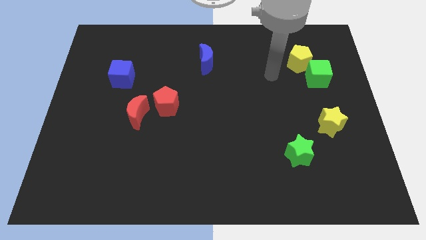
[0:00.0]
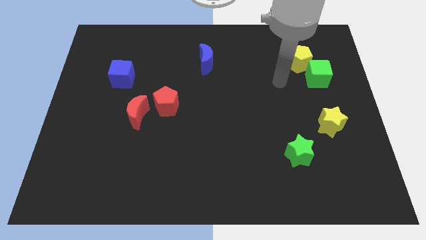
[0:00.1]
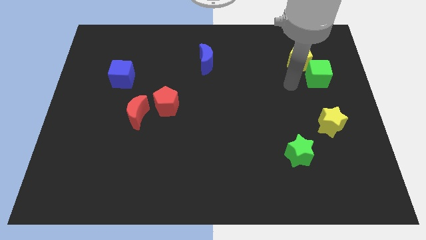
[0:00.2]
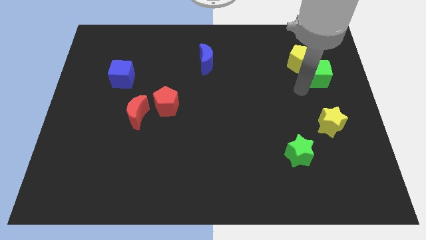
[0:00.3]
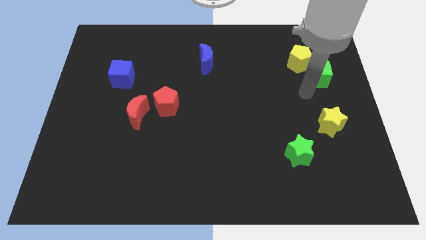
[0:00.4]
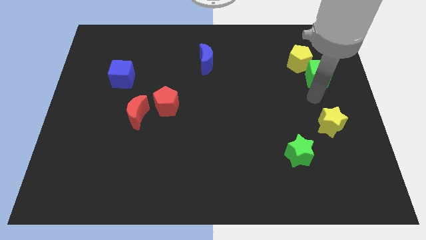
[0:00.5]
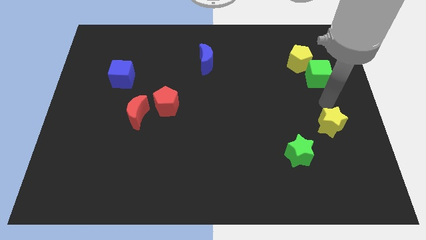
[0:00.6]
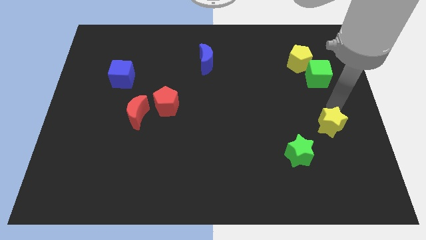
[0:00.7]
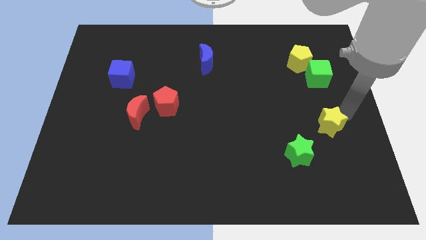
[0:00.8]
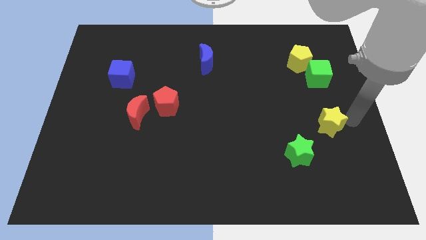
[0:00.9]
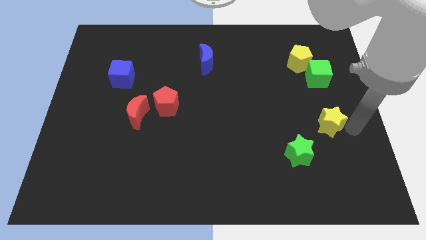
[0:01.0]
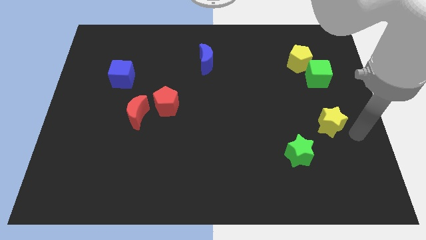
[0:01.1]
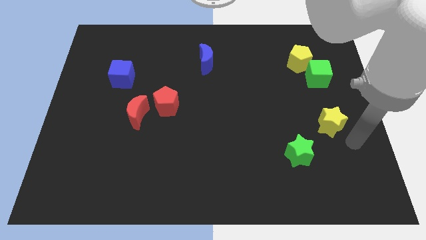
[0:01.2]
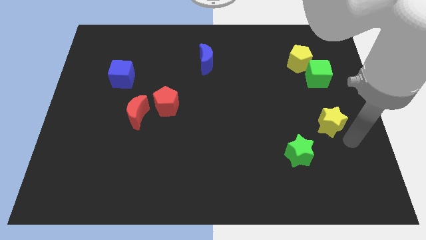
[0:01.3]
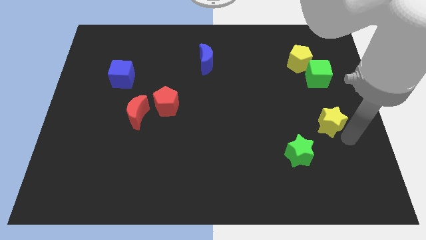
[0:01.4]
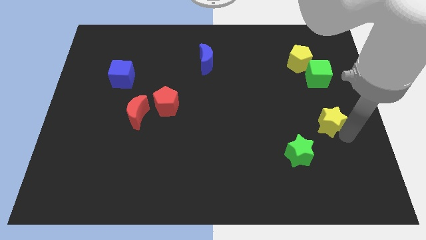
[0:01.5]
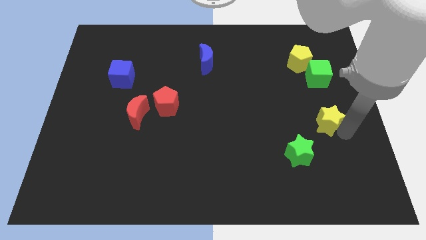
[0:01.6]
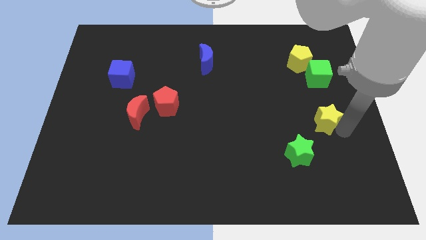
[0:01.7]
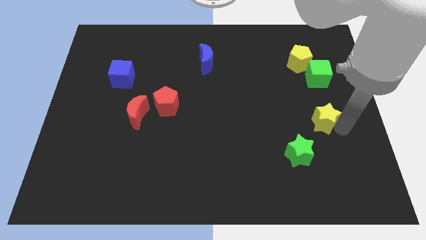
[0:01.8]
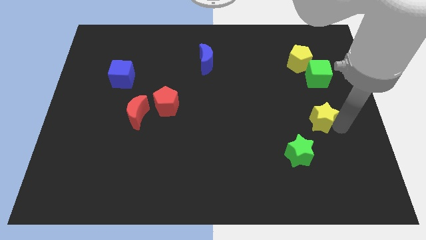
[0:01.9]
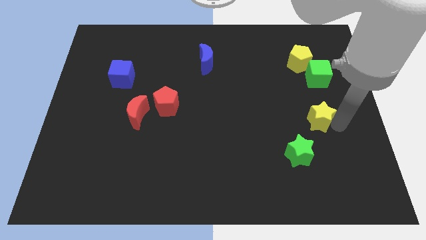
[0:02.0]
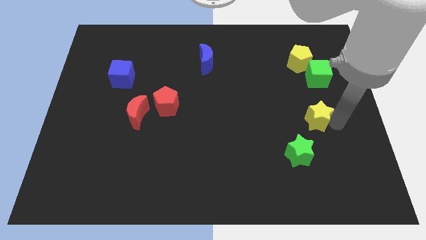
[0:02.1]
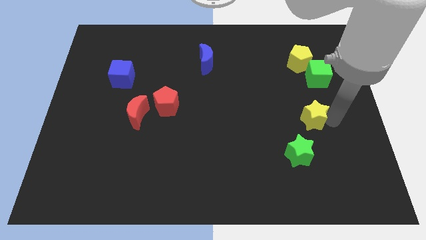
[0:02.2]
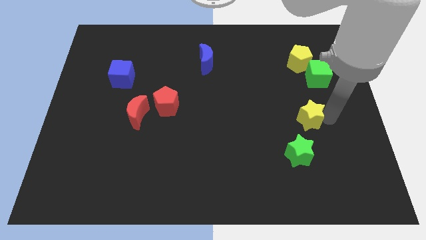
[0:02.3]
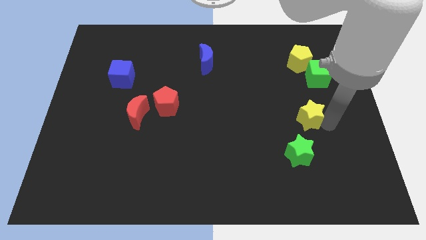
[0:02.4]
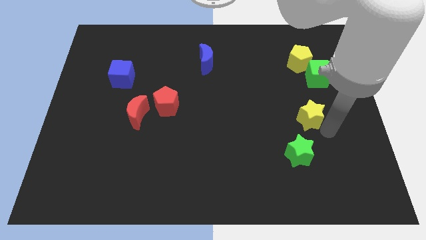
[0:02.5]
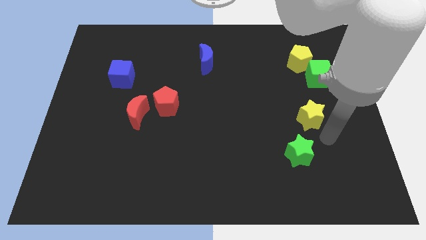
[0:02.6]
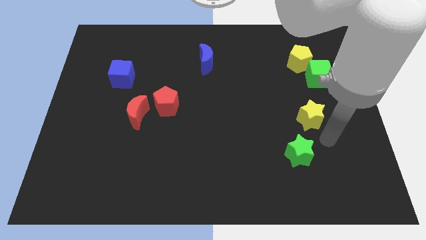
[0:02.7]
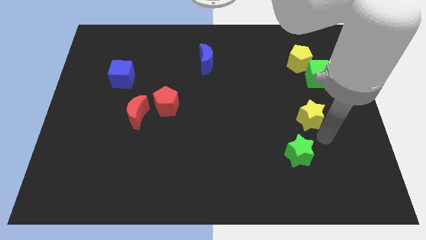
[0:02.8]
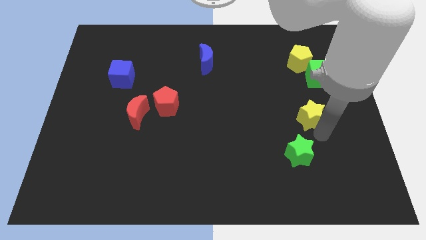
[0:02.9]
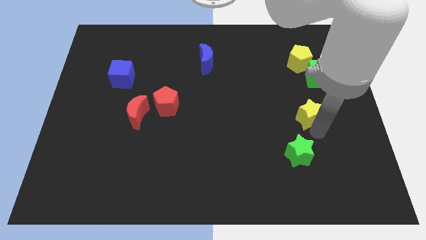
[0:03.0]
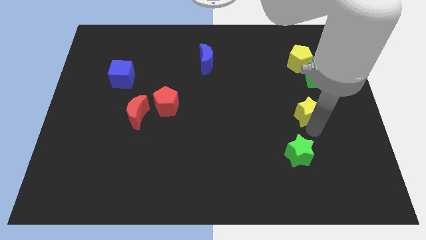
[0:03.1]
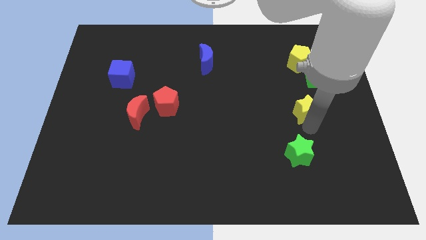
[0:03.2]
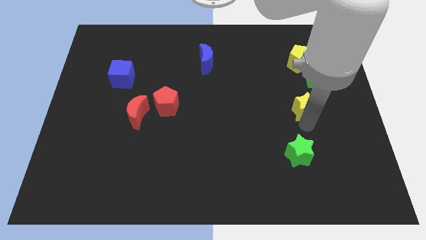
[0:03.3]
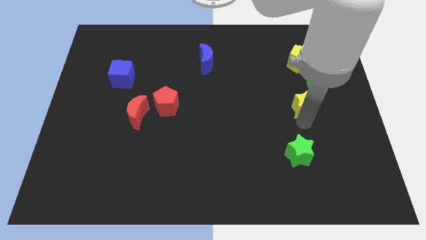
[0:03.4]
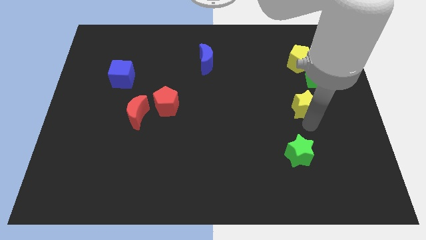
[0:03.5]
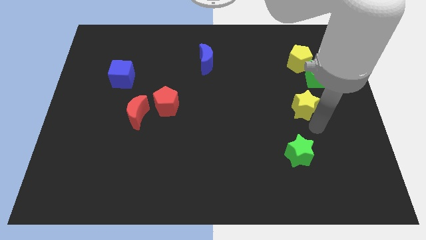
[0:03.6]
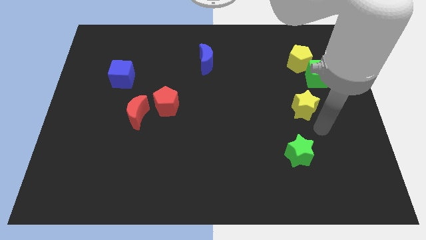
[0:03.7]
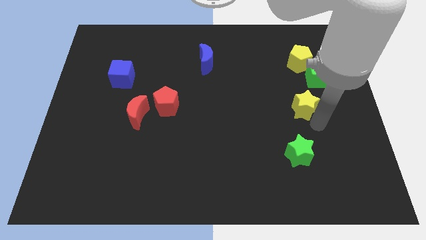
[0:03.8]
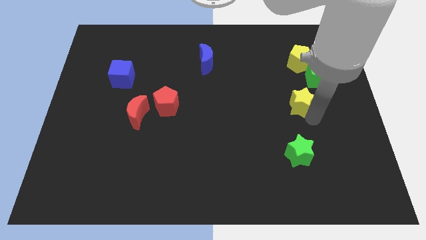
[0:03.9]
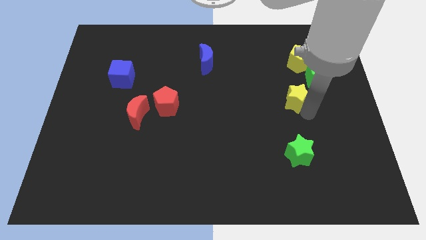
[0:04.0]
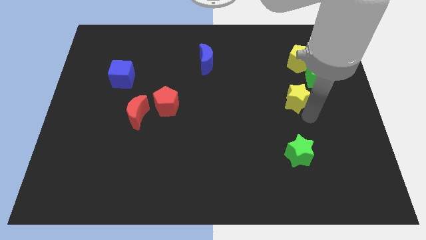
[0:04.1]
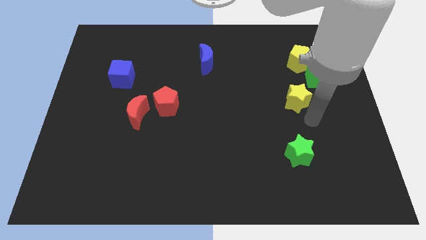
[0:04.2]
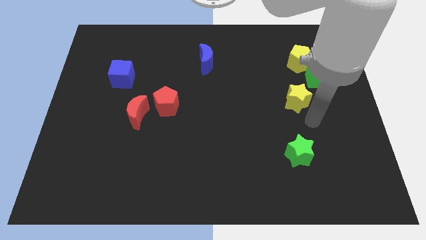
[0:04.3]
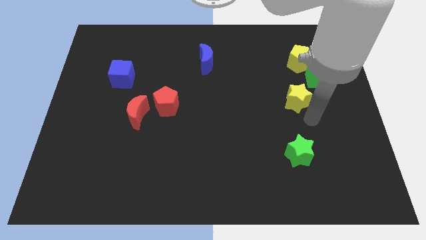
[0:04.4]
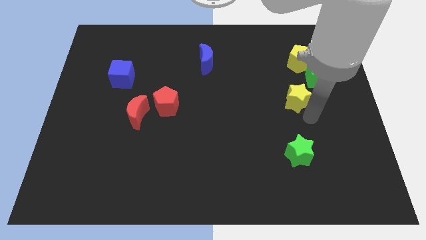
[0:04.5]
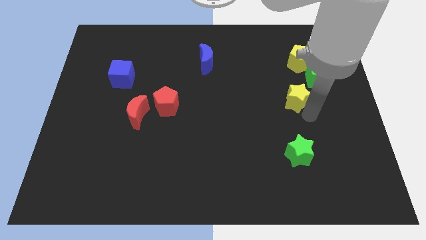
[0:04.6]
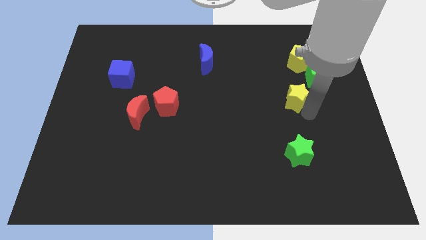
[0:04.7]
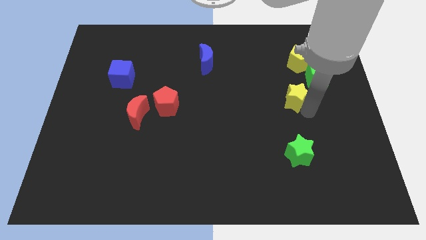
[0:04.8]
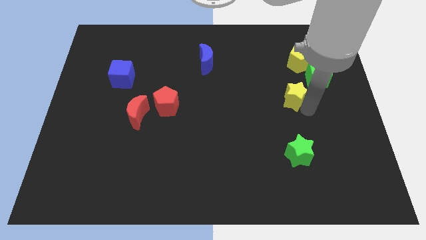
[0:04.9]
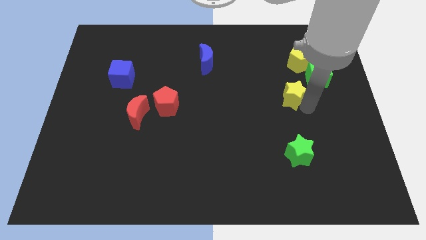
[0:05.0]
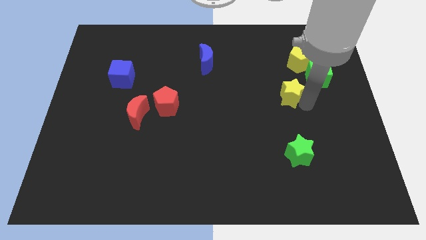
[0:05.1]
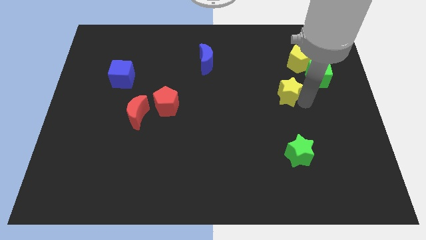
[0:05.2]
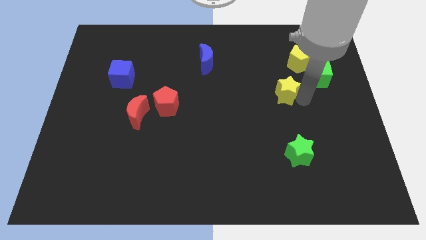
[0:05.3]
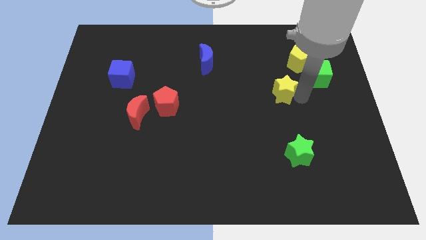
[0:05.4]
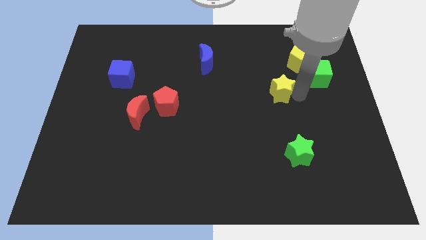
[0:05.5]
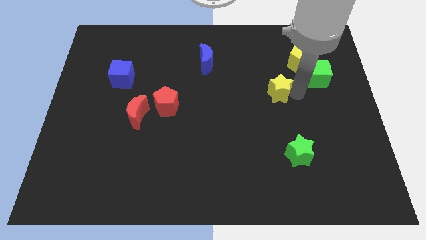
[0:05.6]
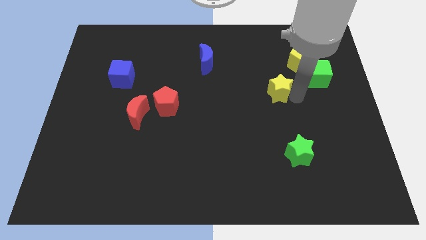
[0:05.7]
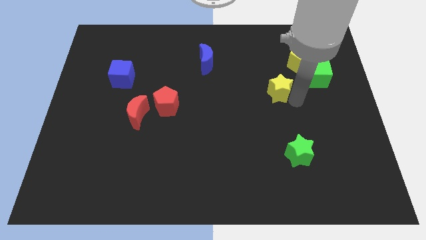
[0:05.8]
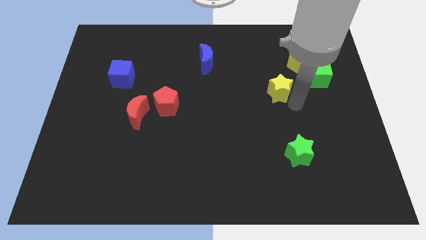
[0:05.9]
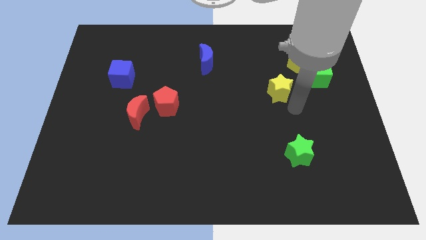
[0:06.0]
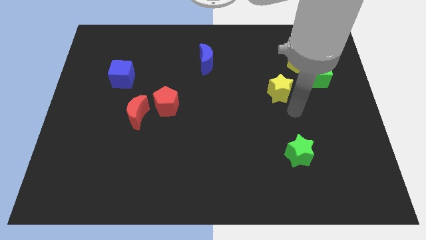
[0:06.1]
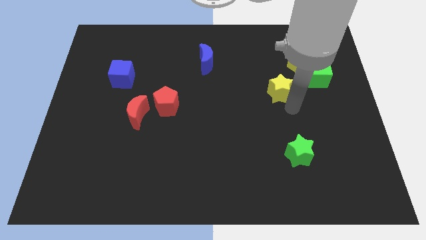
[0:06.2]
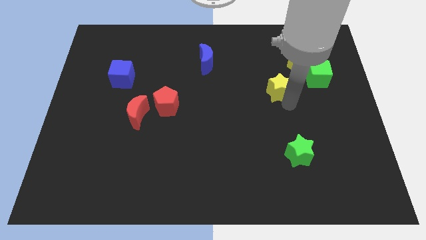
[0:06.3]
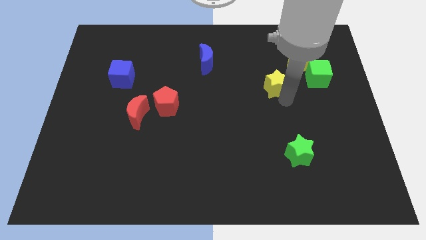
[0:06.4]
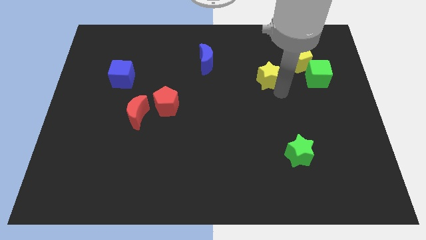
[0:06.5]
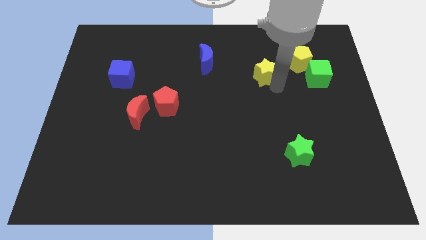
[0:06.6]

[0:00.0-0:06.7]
slide the yellow star up and then left

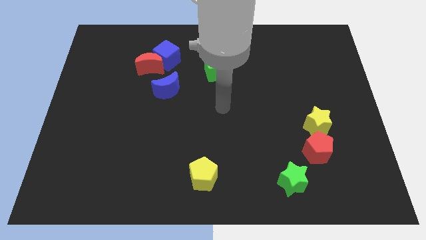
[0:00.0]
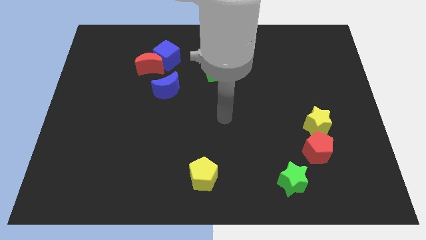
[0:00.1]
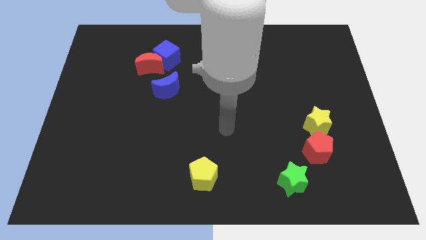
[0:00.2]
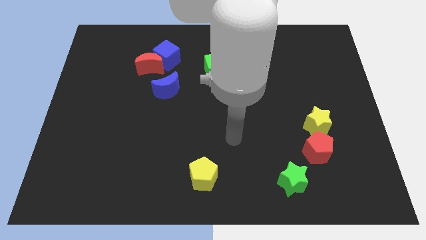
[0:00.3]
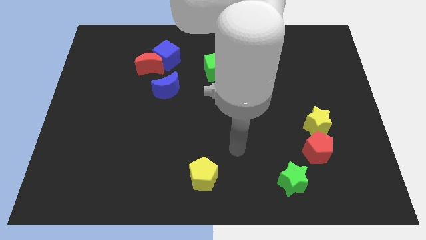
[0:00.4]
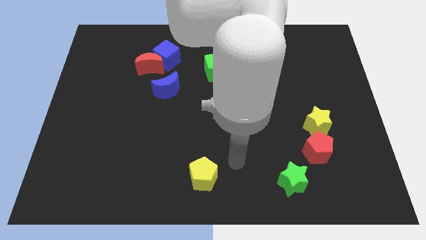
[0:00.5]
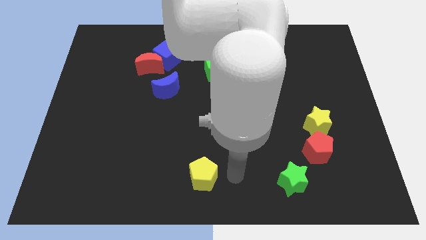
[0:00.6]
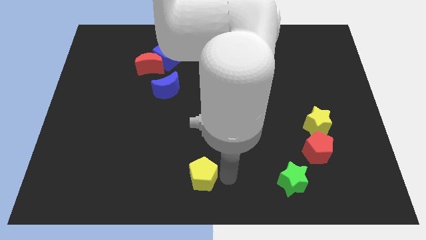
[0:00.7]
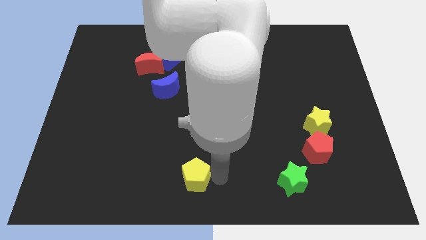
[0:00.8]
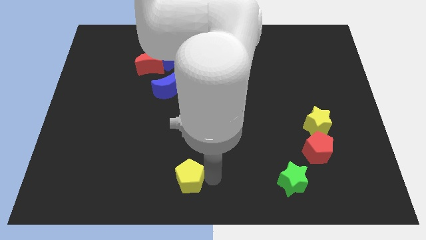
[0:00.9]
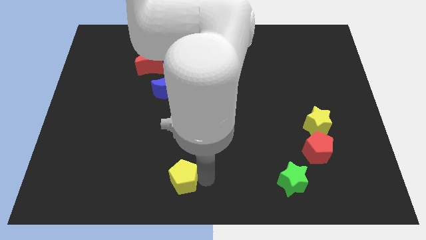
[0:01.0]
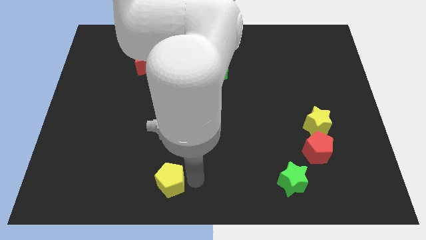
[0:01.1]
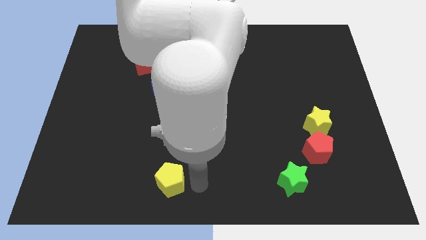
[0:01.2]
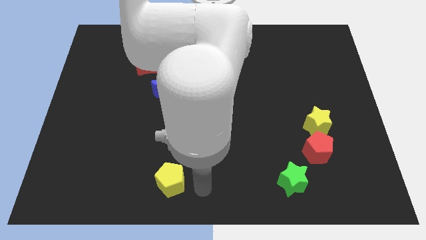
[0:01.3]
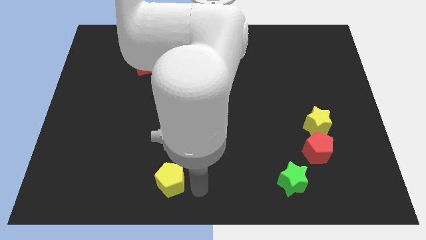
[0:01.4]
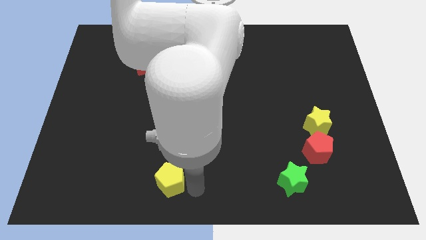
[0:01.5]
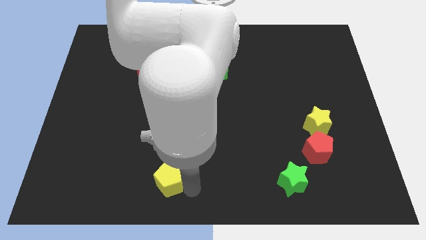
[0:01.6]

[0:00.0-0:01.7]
slightly slide the yellow pentagon left
